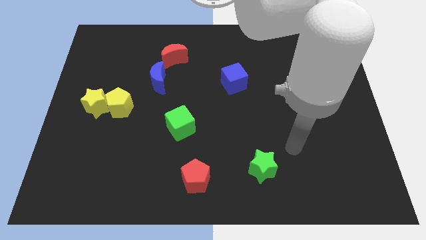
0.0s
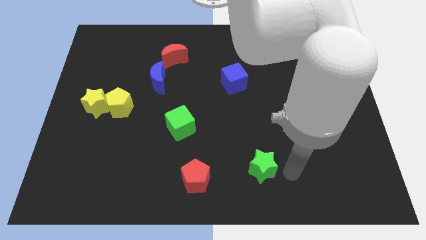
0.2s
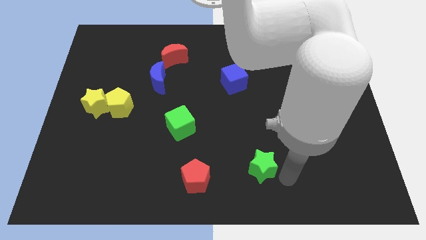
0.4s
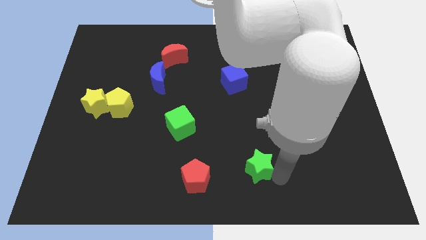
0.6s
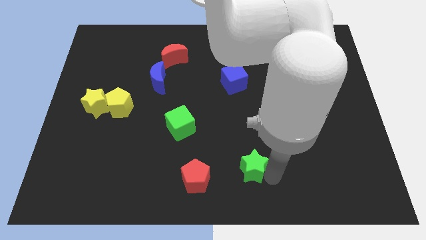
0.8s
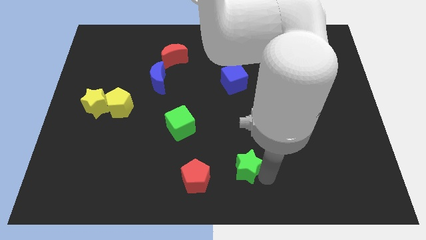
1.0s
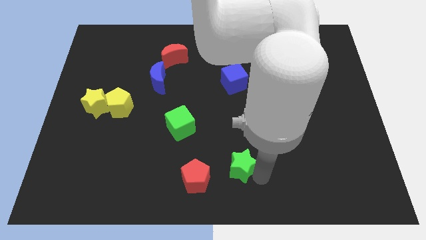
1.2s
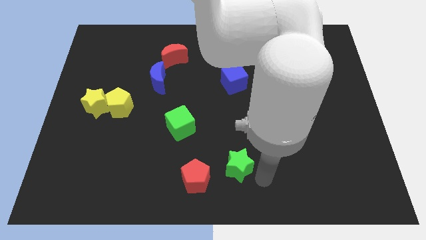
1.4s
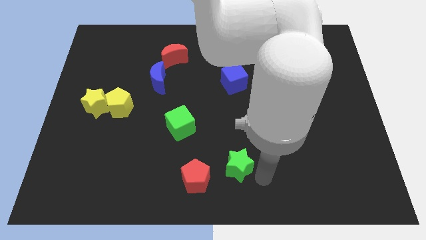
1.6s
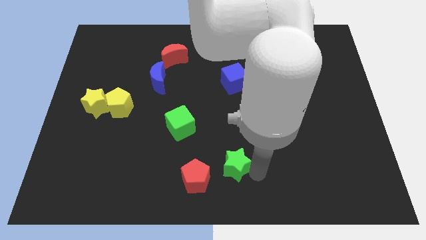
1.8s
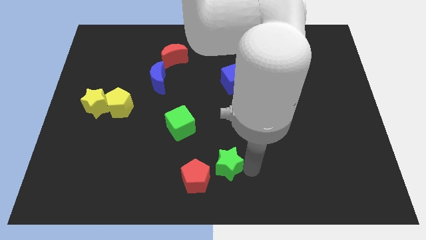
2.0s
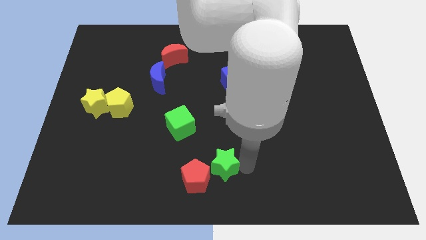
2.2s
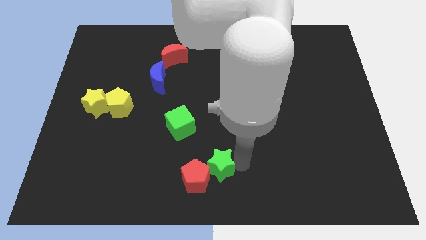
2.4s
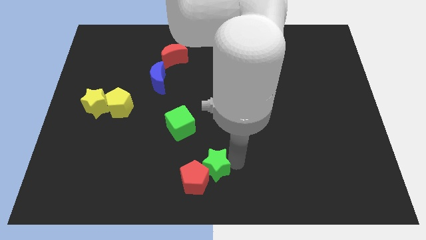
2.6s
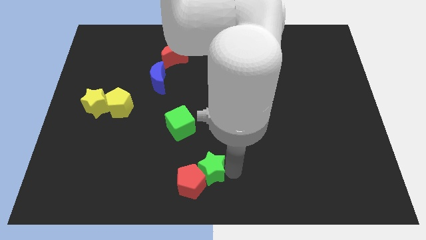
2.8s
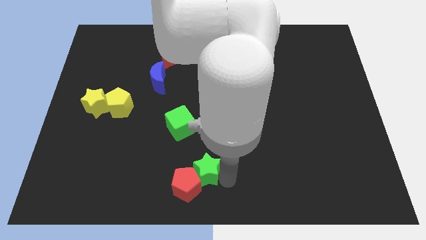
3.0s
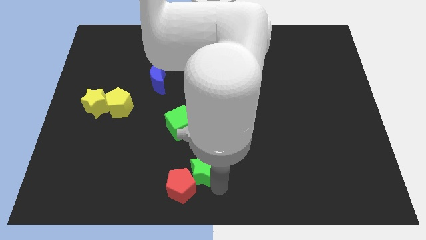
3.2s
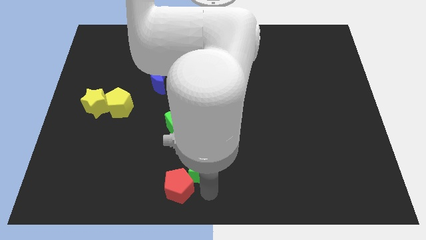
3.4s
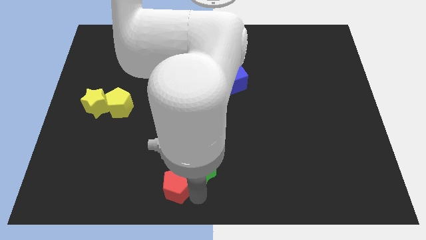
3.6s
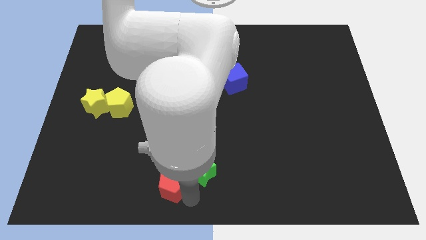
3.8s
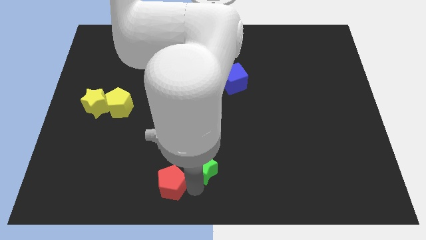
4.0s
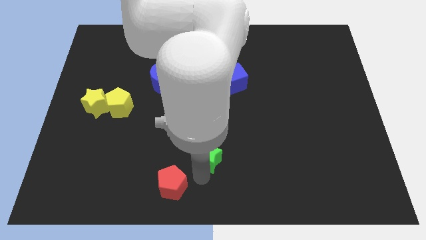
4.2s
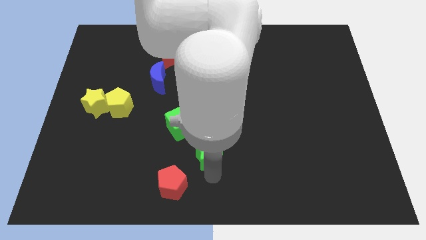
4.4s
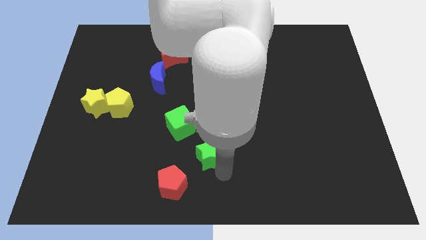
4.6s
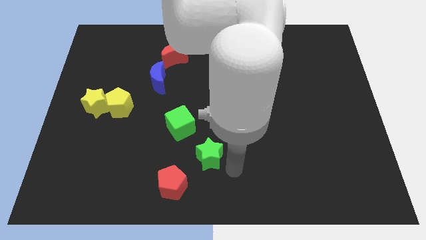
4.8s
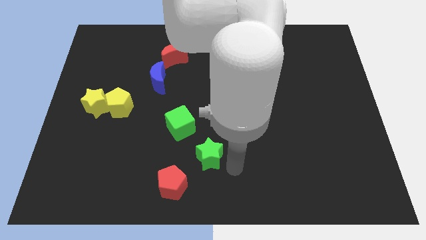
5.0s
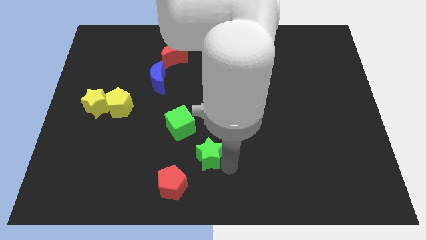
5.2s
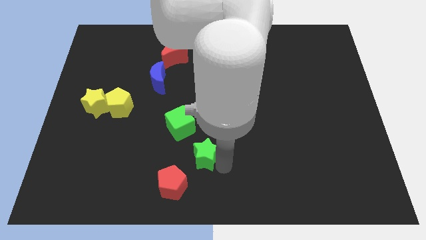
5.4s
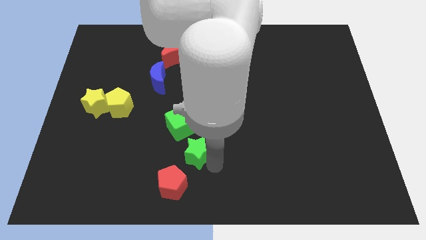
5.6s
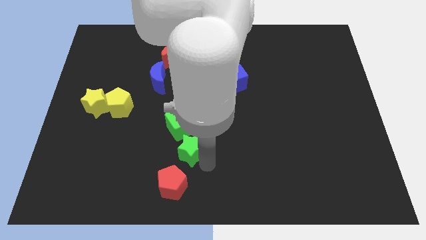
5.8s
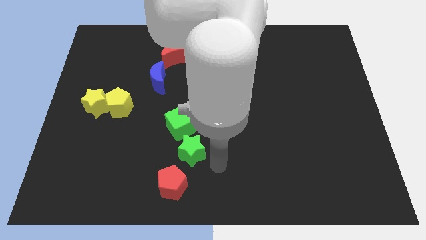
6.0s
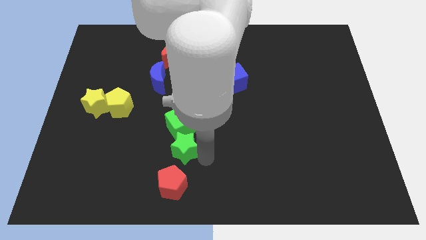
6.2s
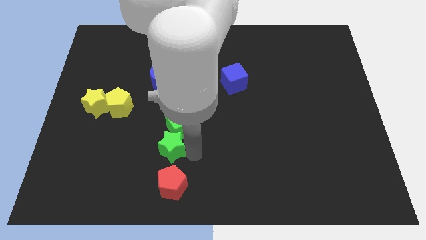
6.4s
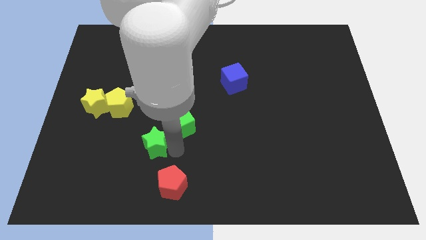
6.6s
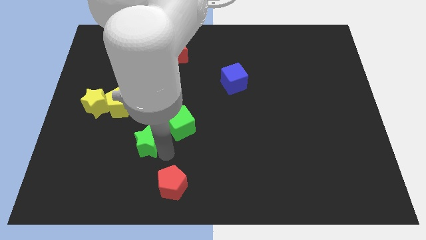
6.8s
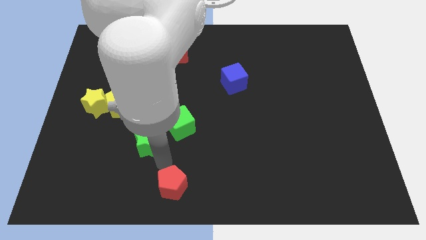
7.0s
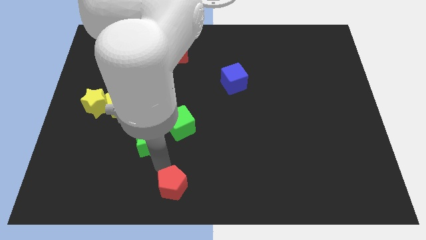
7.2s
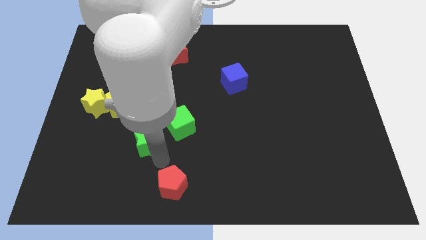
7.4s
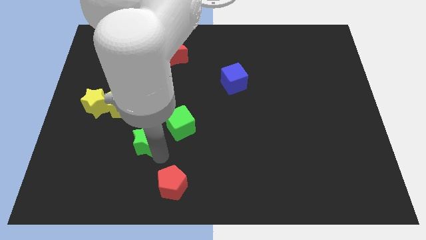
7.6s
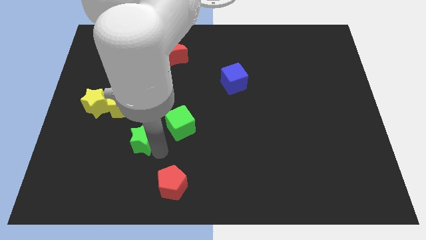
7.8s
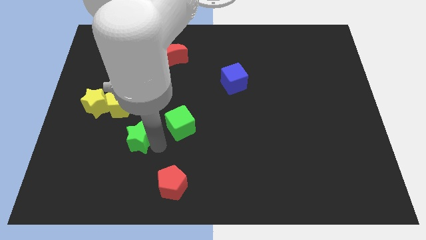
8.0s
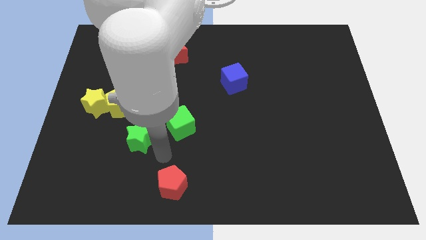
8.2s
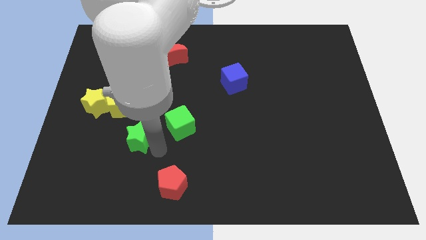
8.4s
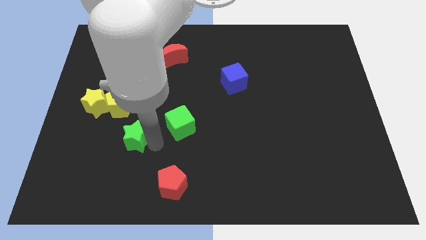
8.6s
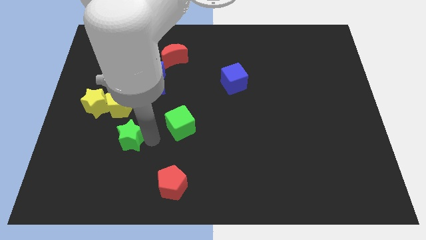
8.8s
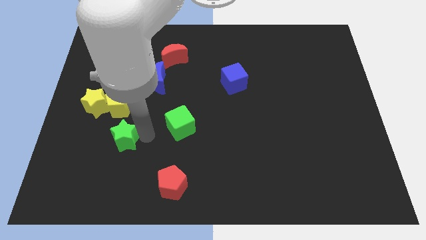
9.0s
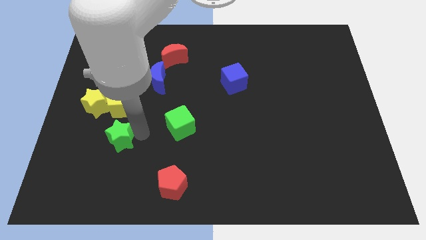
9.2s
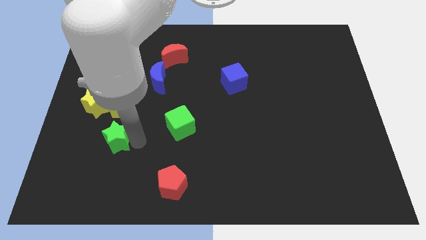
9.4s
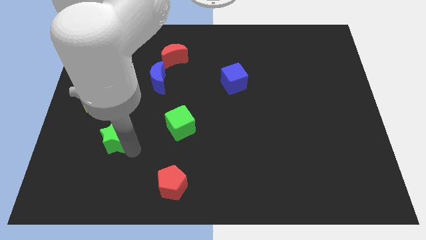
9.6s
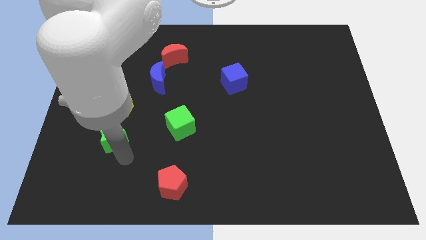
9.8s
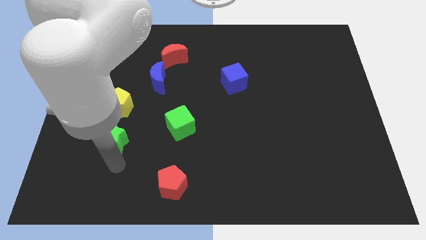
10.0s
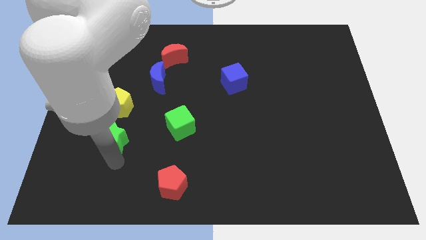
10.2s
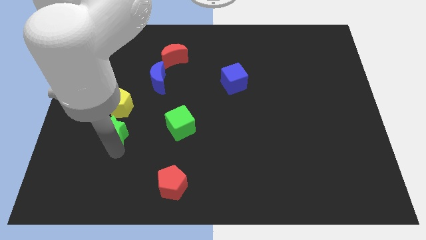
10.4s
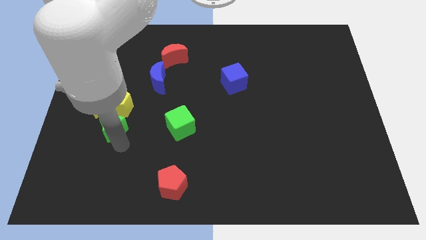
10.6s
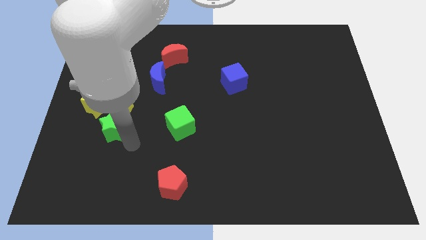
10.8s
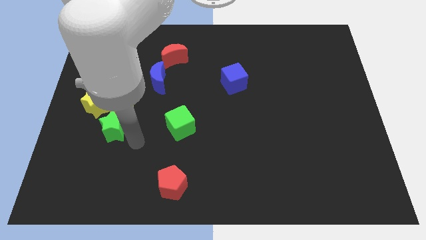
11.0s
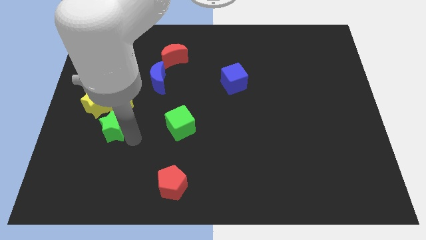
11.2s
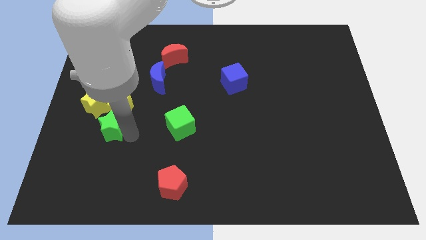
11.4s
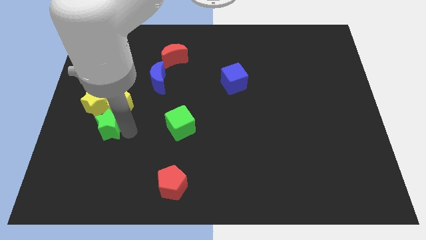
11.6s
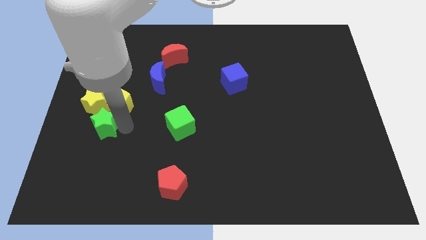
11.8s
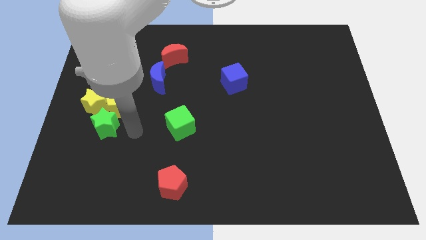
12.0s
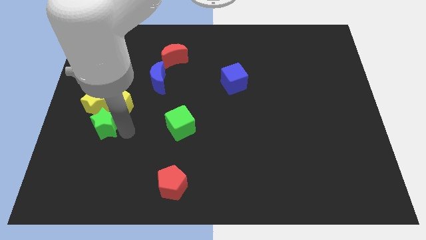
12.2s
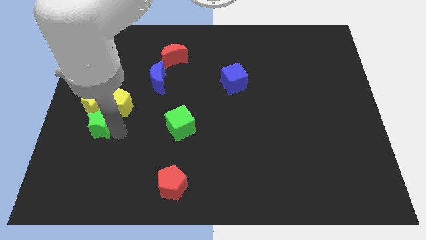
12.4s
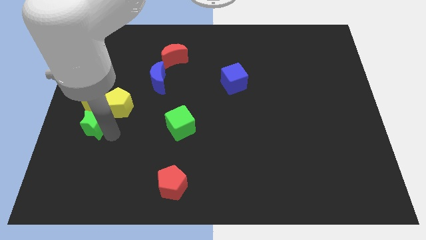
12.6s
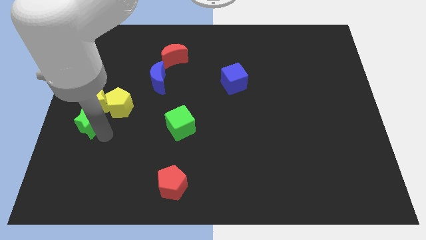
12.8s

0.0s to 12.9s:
put the green star to the left side of the board
